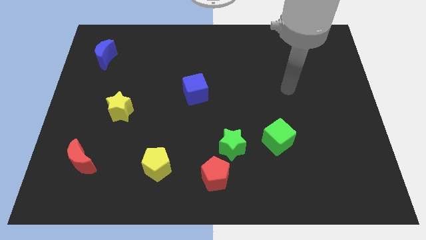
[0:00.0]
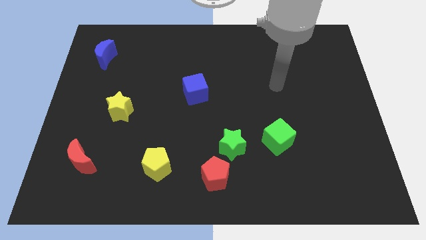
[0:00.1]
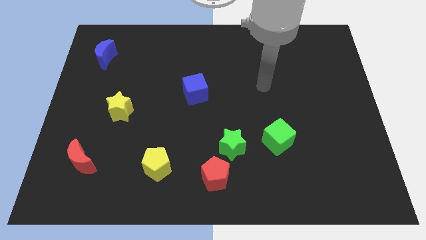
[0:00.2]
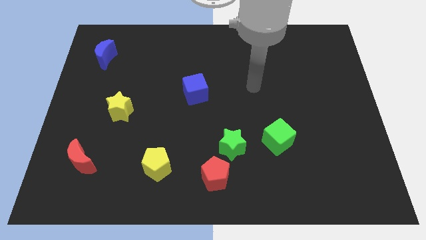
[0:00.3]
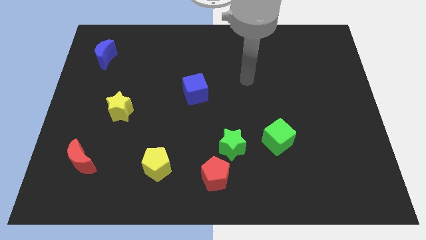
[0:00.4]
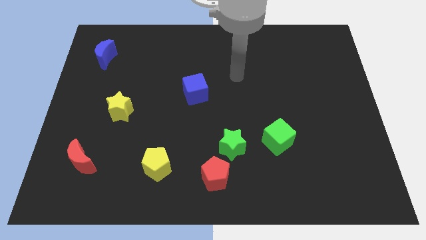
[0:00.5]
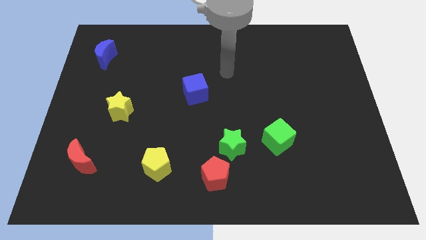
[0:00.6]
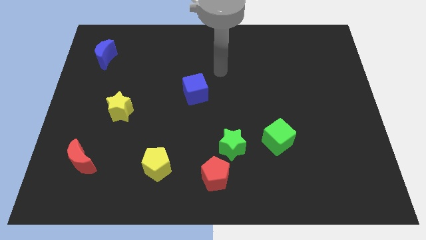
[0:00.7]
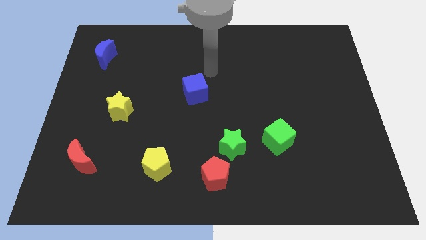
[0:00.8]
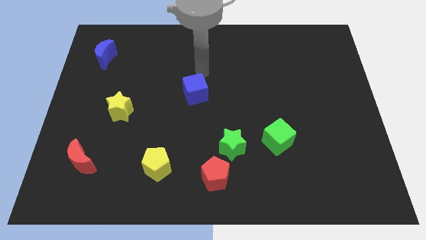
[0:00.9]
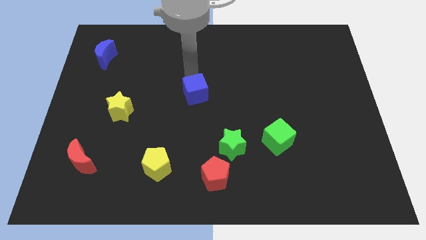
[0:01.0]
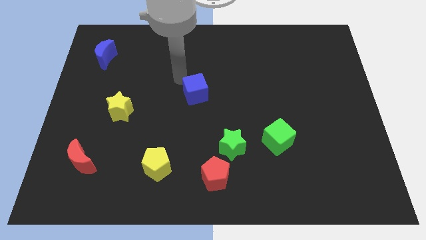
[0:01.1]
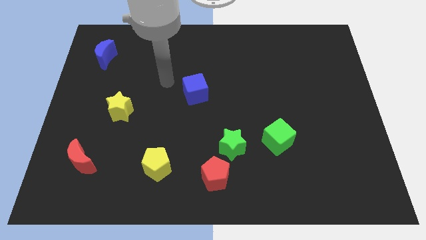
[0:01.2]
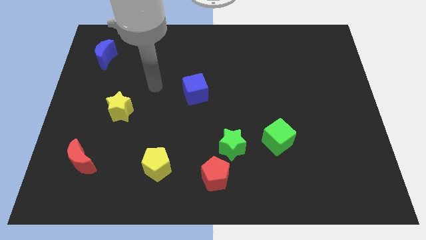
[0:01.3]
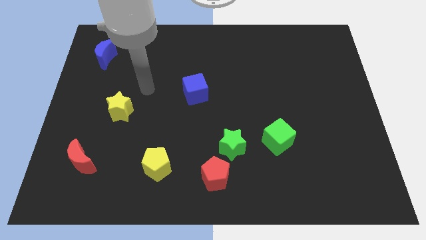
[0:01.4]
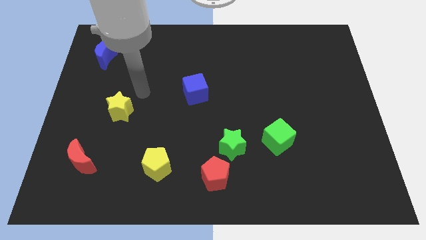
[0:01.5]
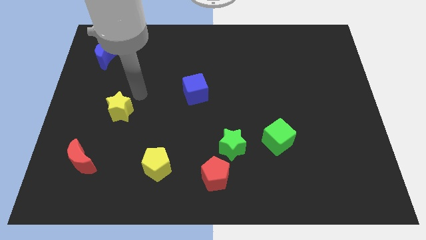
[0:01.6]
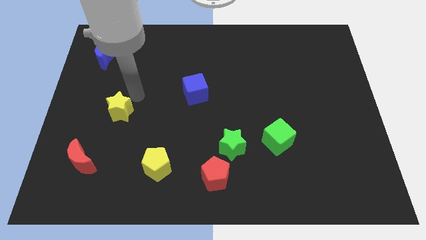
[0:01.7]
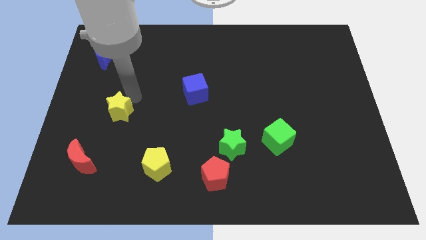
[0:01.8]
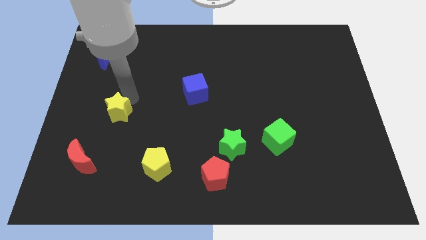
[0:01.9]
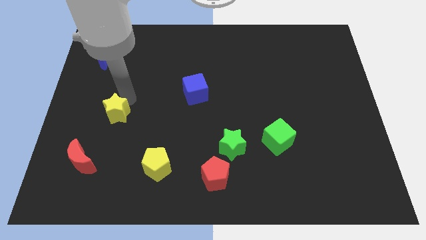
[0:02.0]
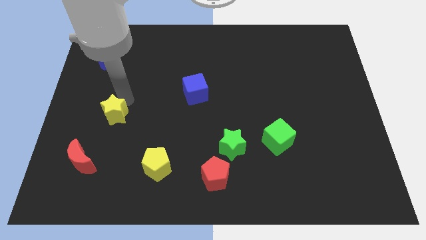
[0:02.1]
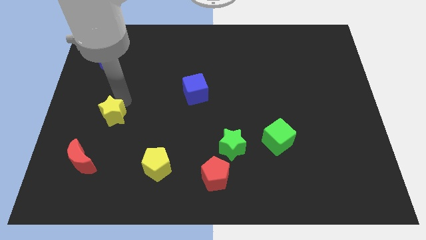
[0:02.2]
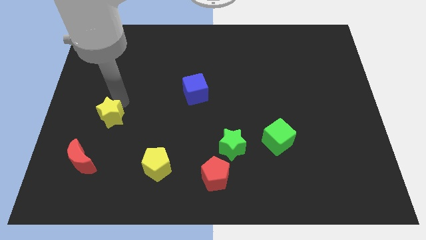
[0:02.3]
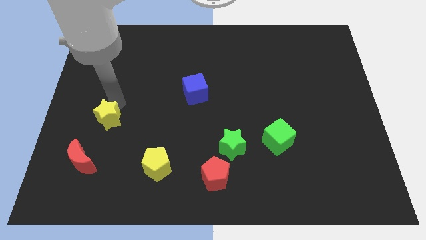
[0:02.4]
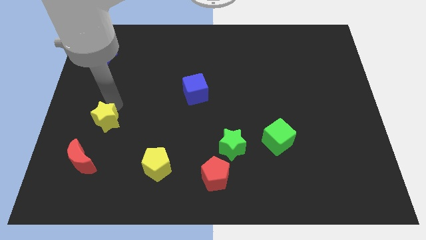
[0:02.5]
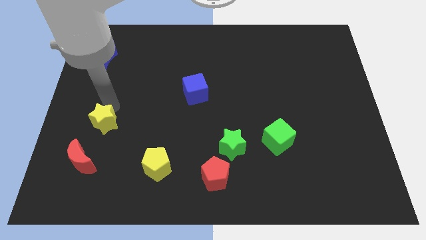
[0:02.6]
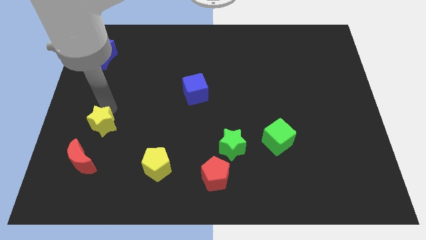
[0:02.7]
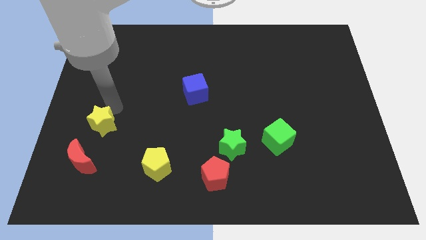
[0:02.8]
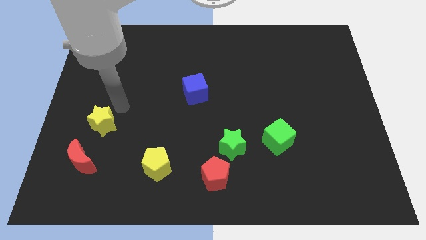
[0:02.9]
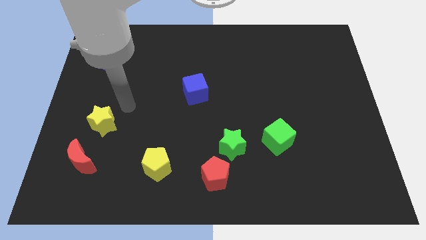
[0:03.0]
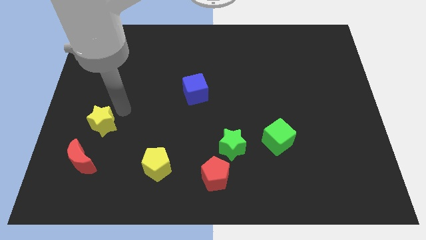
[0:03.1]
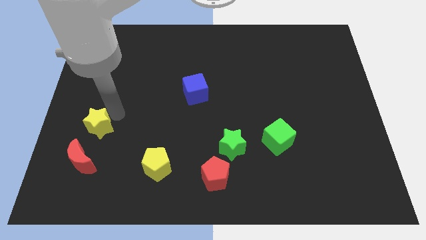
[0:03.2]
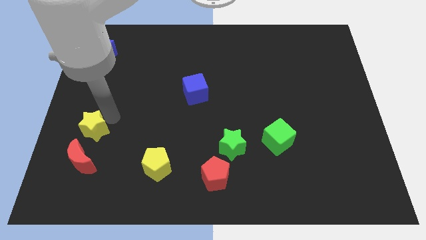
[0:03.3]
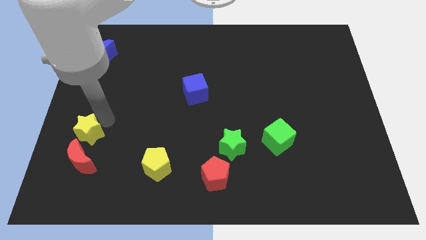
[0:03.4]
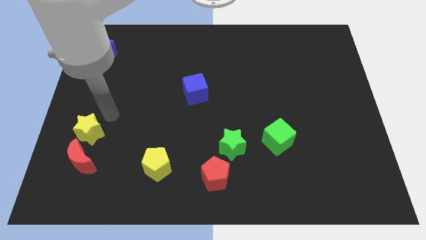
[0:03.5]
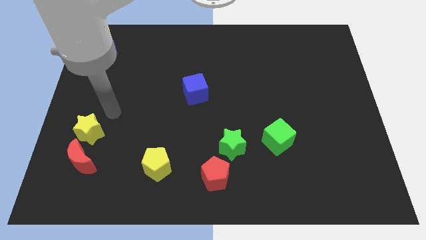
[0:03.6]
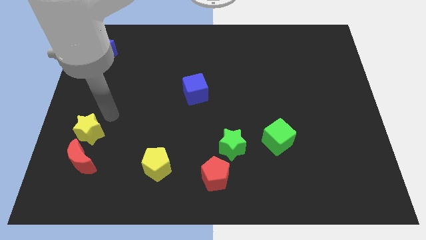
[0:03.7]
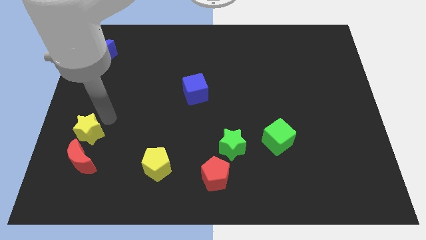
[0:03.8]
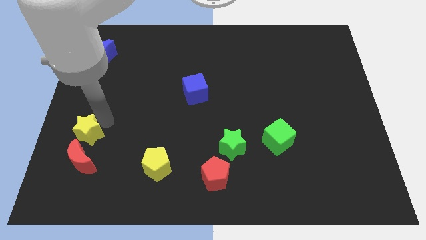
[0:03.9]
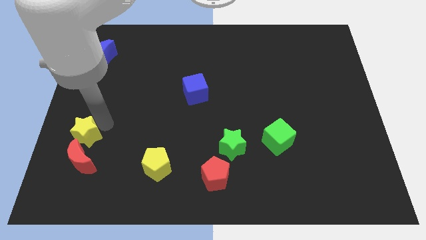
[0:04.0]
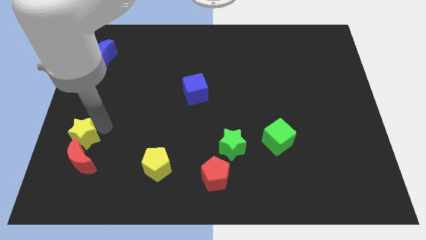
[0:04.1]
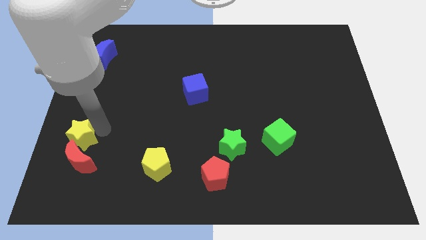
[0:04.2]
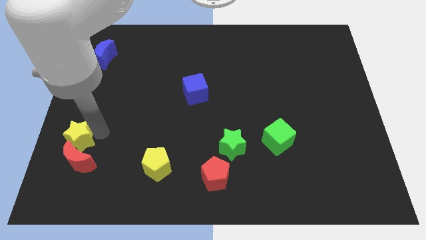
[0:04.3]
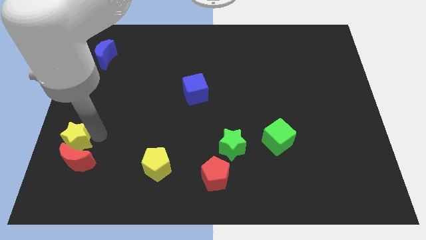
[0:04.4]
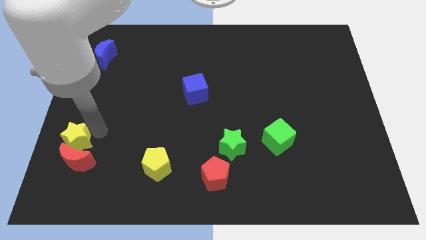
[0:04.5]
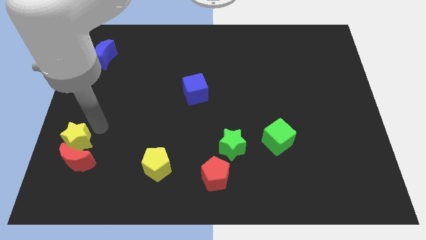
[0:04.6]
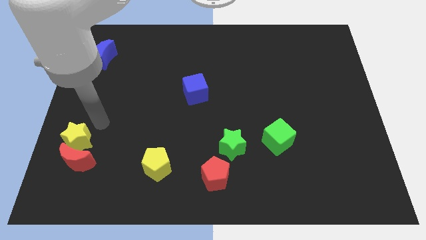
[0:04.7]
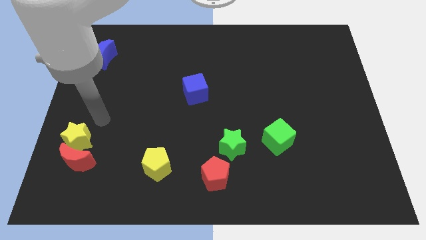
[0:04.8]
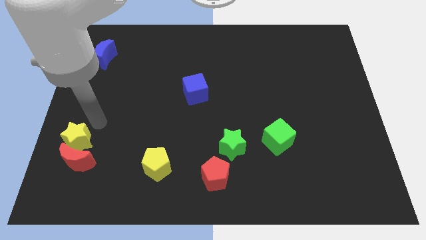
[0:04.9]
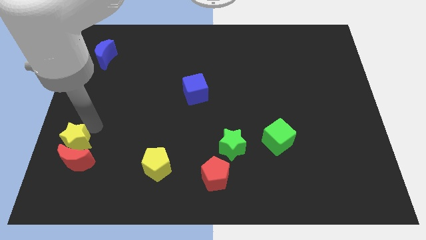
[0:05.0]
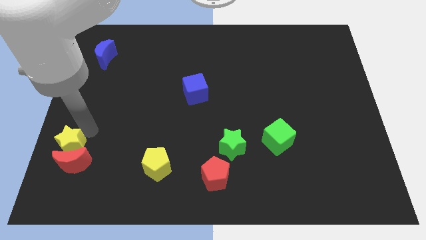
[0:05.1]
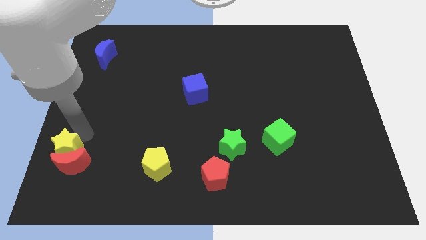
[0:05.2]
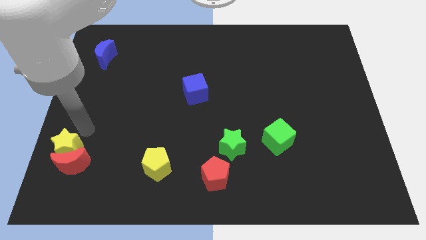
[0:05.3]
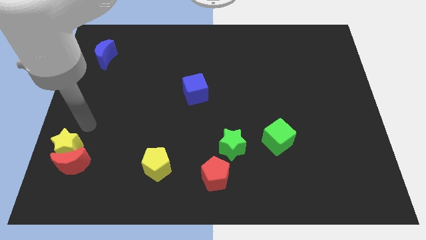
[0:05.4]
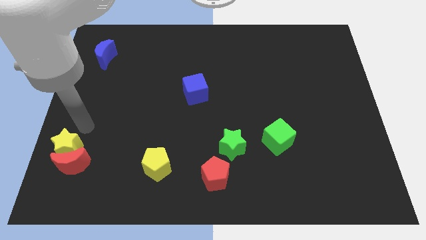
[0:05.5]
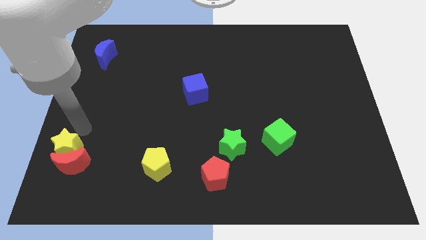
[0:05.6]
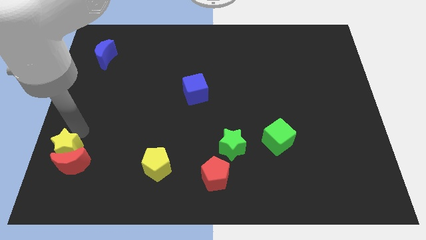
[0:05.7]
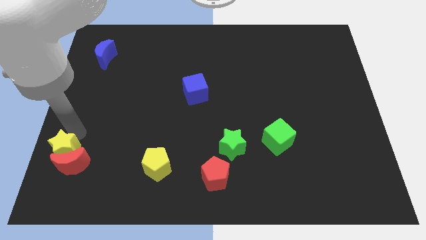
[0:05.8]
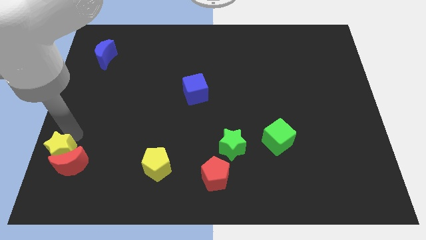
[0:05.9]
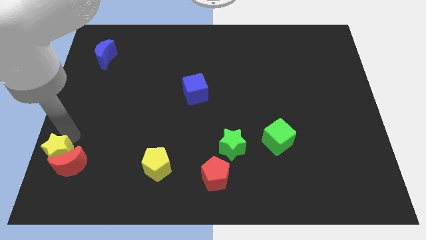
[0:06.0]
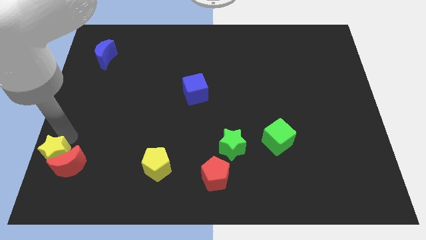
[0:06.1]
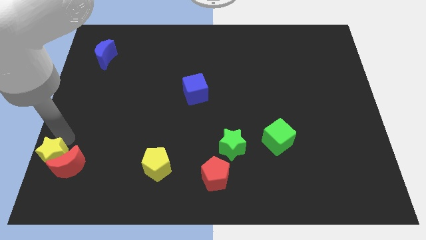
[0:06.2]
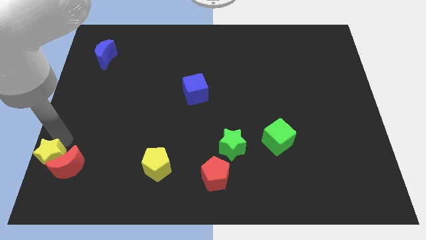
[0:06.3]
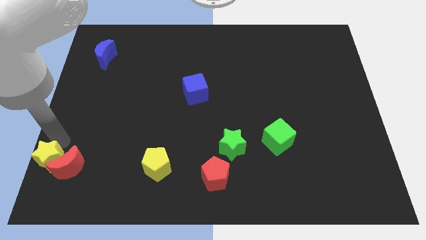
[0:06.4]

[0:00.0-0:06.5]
put the yellow star to the bottom left
